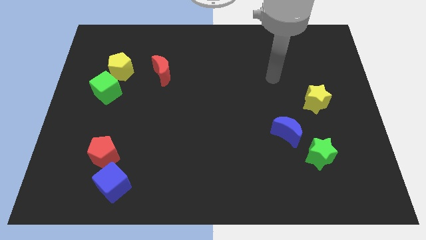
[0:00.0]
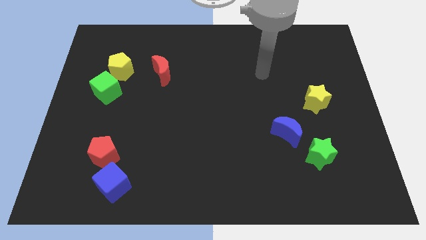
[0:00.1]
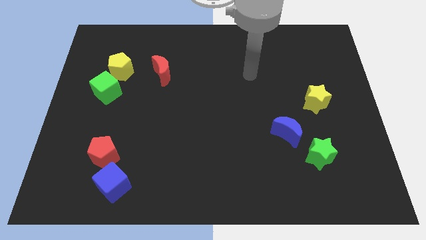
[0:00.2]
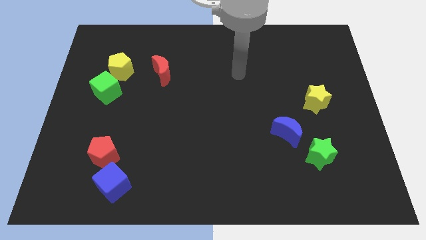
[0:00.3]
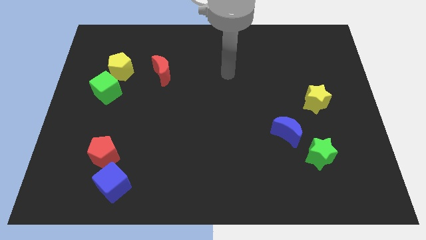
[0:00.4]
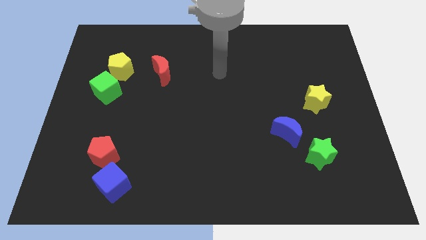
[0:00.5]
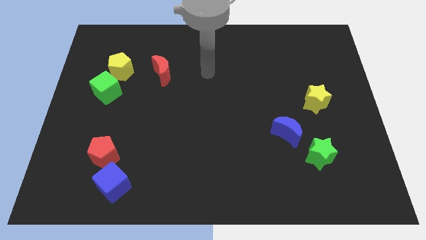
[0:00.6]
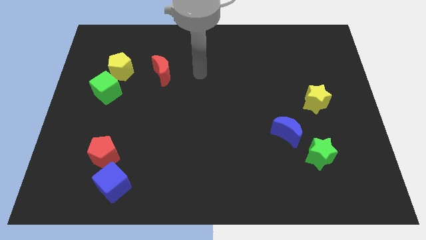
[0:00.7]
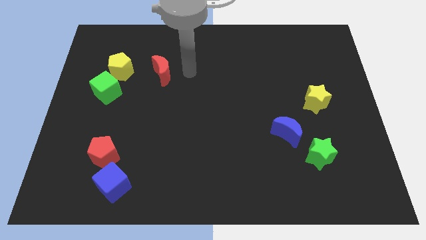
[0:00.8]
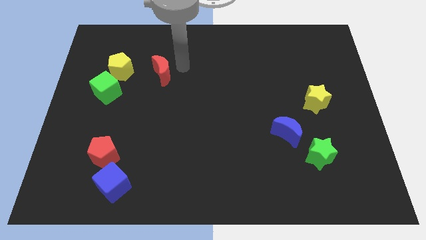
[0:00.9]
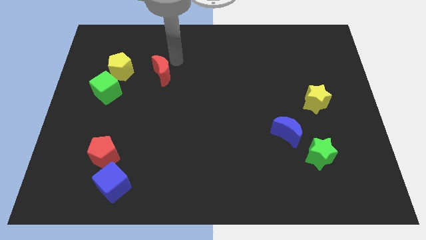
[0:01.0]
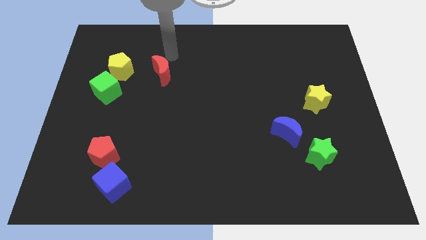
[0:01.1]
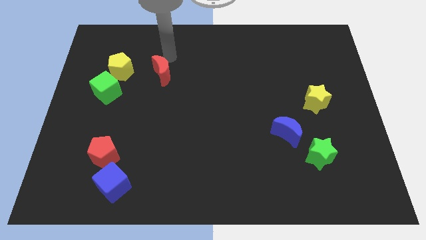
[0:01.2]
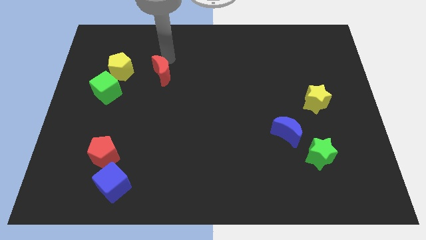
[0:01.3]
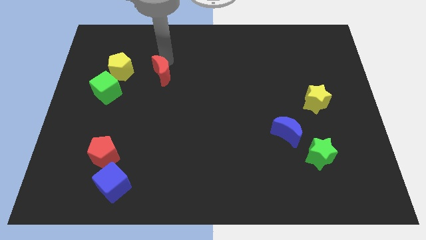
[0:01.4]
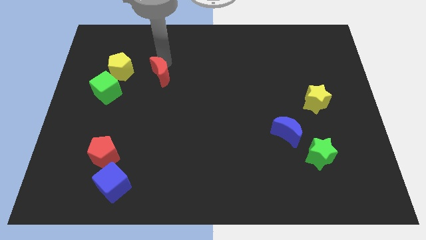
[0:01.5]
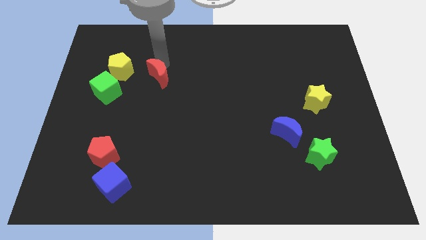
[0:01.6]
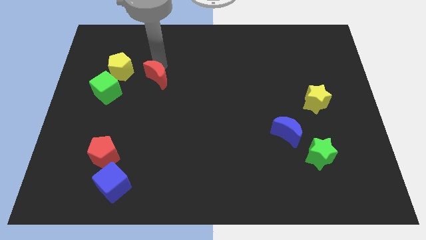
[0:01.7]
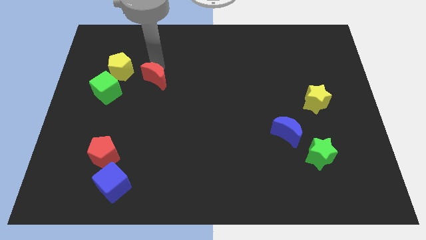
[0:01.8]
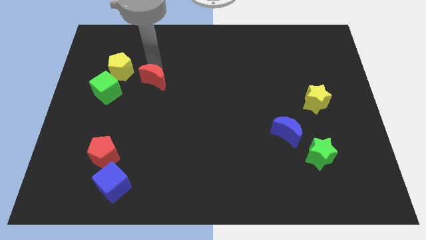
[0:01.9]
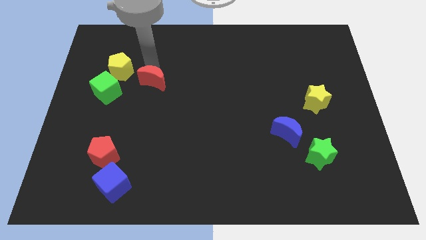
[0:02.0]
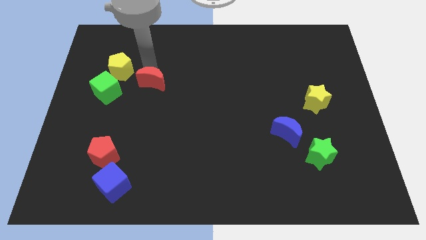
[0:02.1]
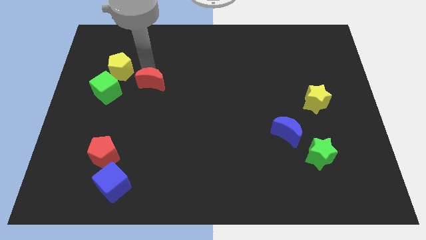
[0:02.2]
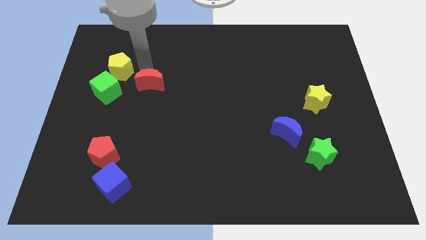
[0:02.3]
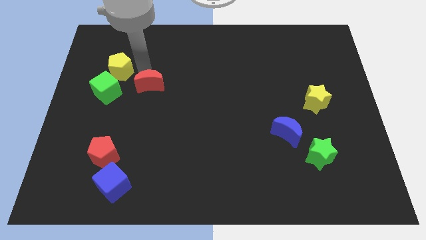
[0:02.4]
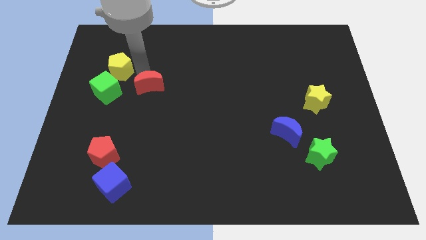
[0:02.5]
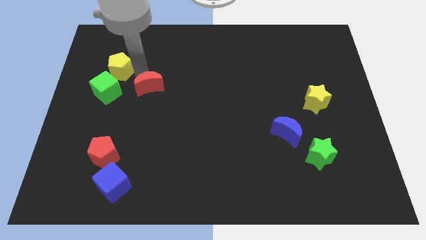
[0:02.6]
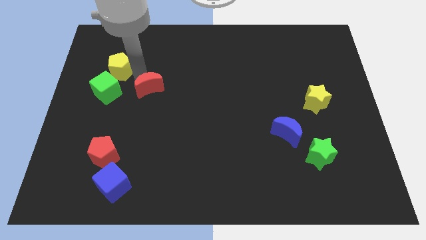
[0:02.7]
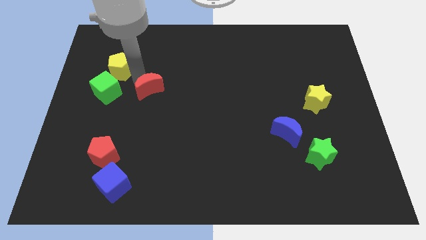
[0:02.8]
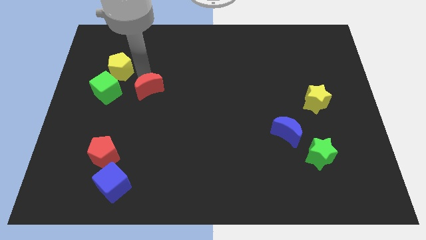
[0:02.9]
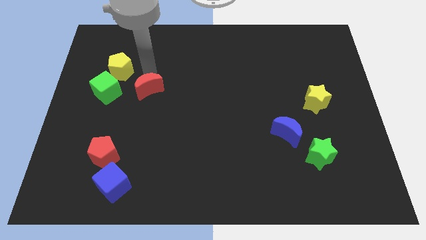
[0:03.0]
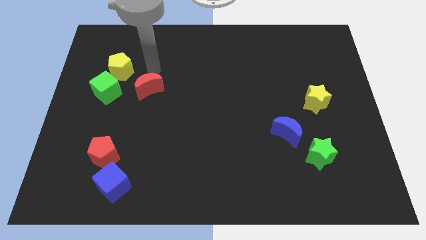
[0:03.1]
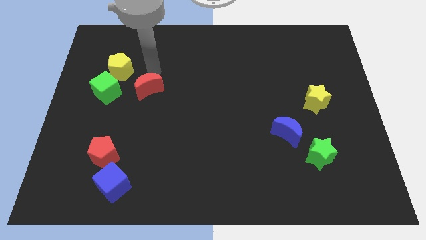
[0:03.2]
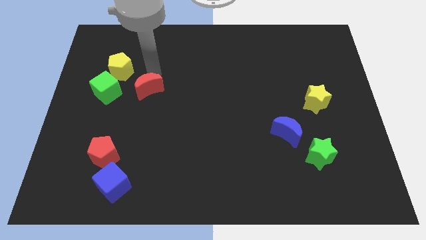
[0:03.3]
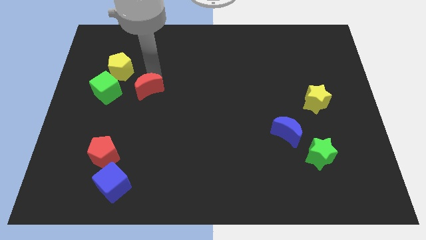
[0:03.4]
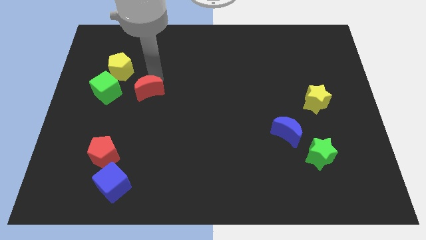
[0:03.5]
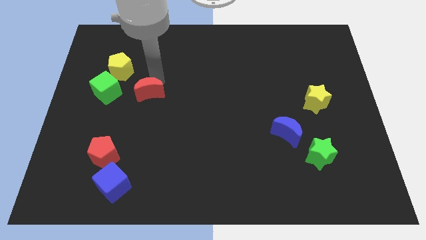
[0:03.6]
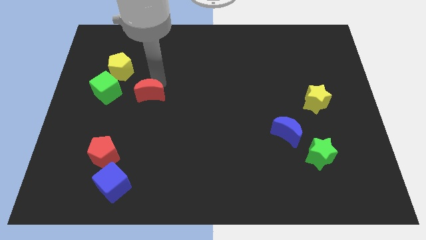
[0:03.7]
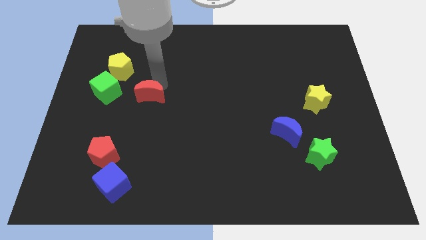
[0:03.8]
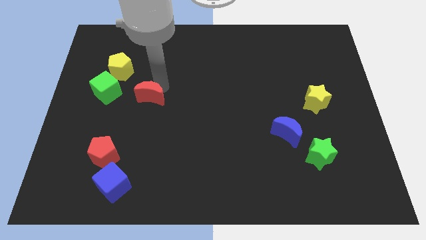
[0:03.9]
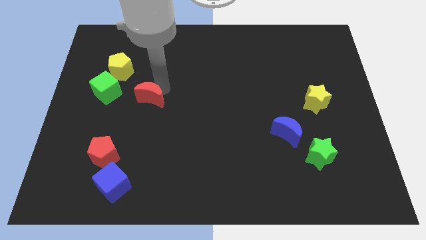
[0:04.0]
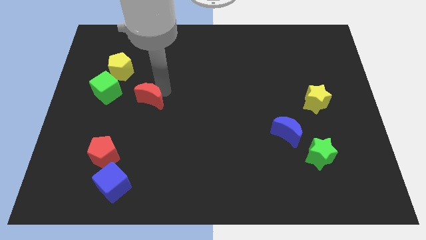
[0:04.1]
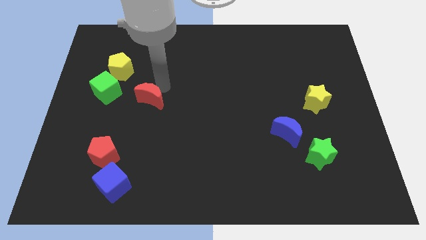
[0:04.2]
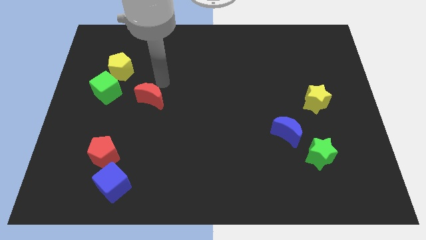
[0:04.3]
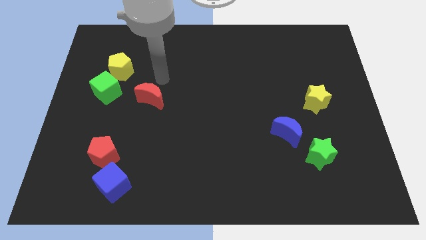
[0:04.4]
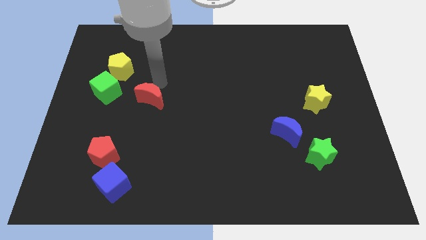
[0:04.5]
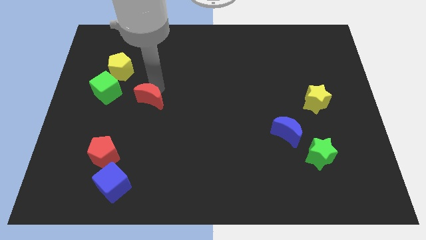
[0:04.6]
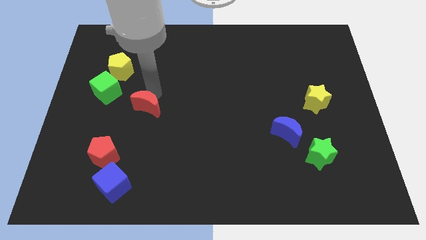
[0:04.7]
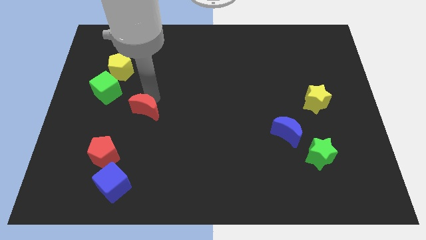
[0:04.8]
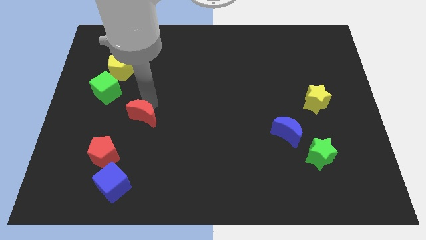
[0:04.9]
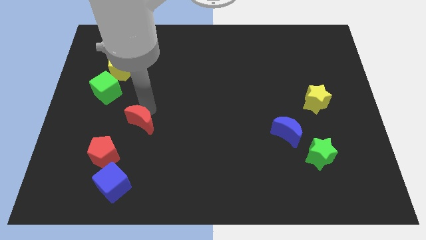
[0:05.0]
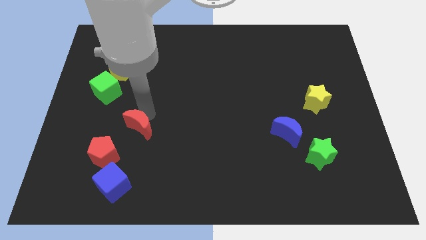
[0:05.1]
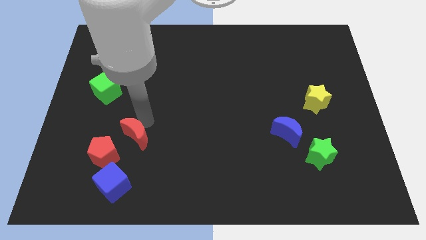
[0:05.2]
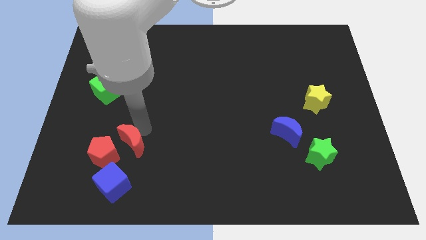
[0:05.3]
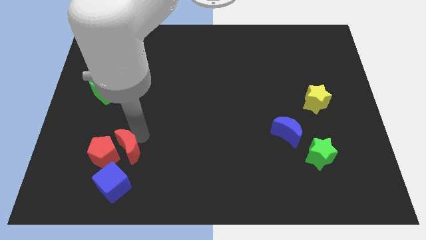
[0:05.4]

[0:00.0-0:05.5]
slide the red moon close to the red pentagon

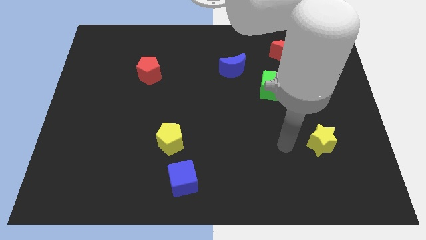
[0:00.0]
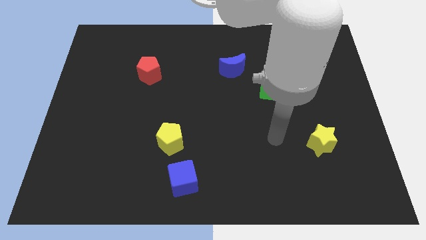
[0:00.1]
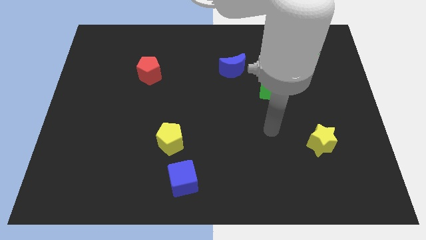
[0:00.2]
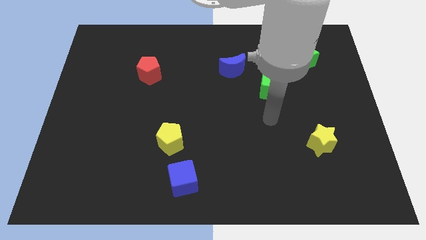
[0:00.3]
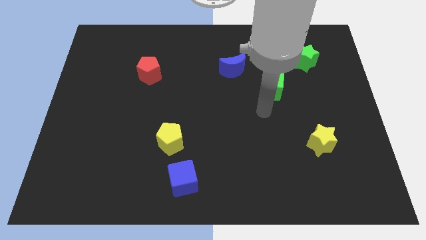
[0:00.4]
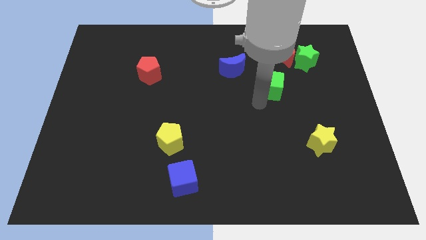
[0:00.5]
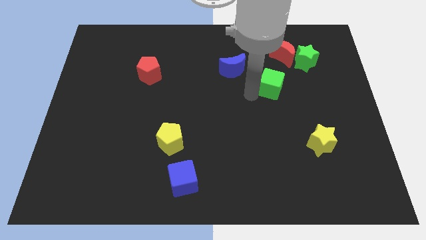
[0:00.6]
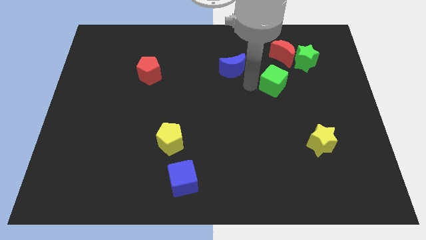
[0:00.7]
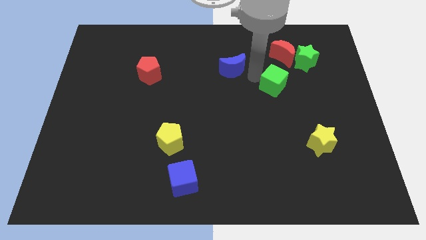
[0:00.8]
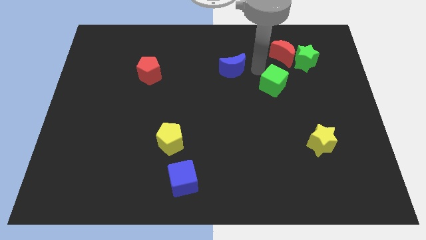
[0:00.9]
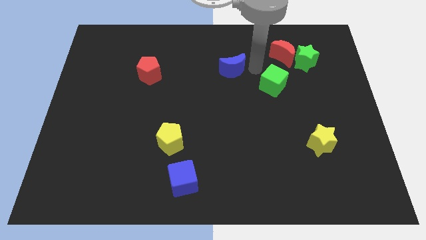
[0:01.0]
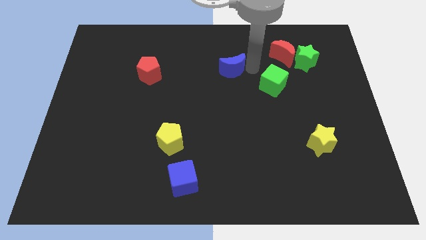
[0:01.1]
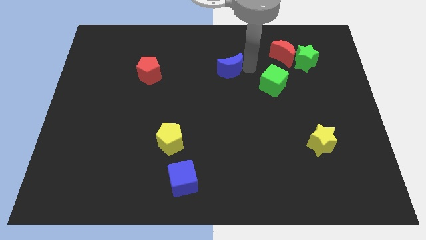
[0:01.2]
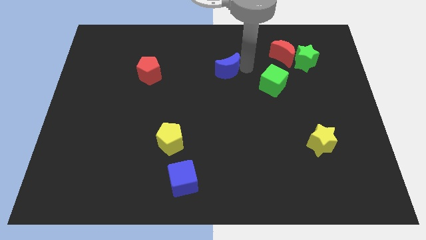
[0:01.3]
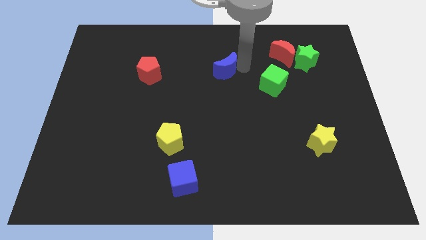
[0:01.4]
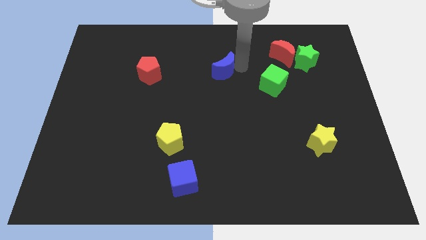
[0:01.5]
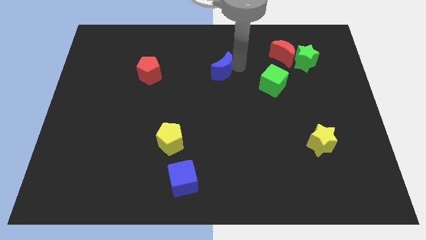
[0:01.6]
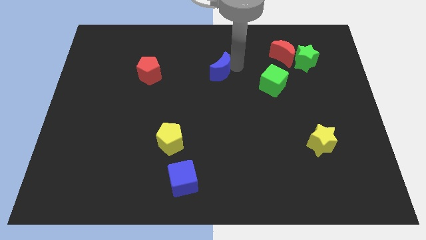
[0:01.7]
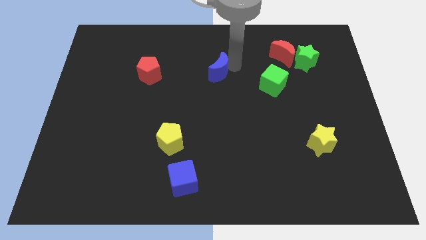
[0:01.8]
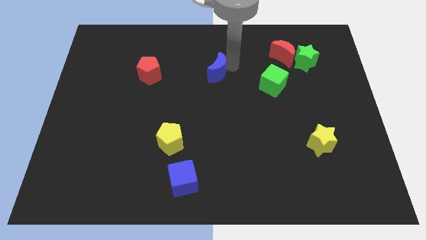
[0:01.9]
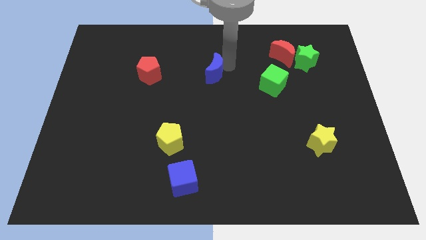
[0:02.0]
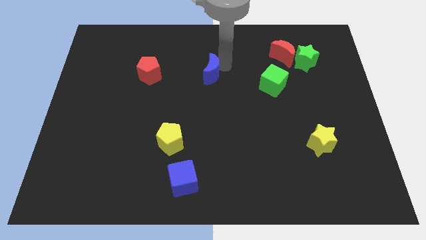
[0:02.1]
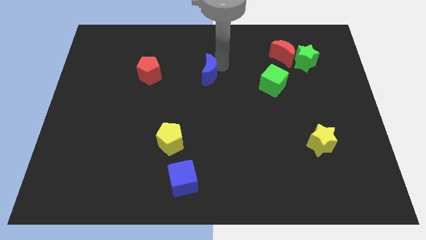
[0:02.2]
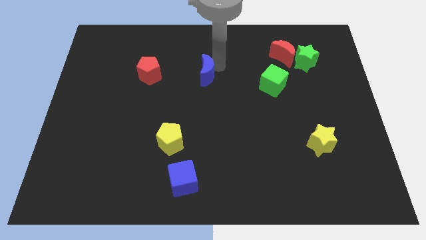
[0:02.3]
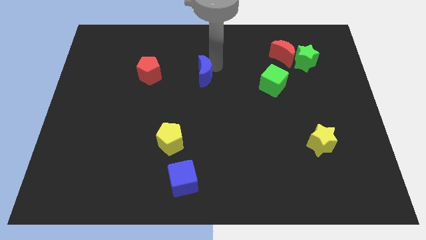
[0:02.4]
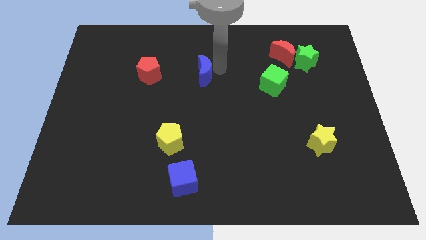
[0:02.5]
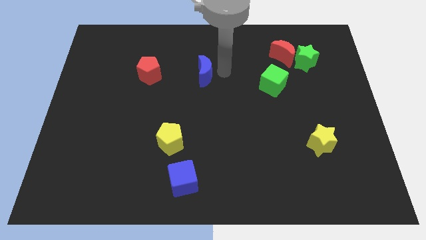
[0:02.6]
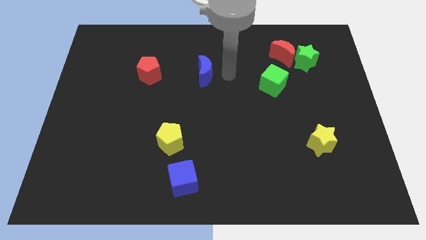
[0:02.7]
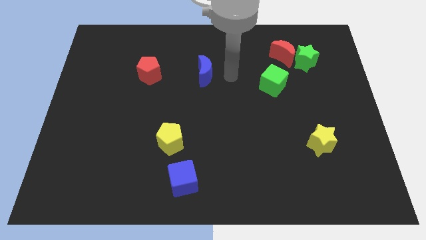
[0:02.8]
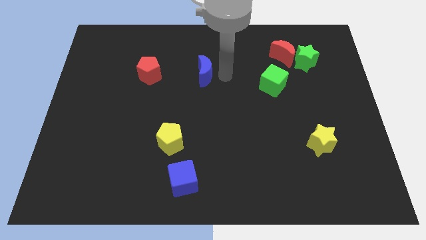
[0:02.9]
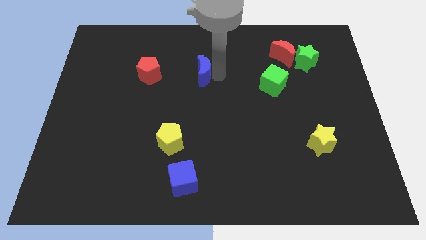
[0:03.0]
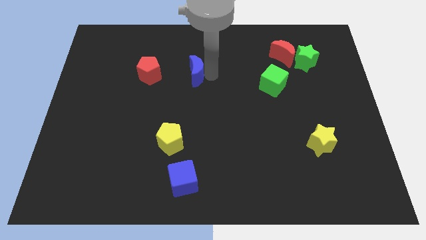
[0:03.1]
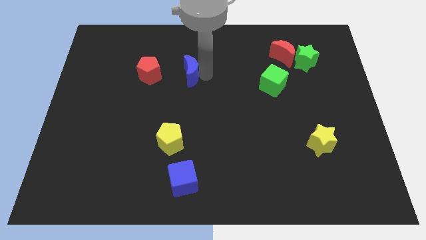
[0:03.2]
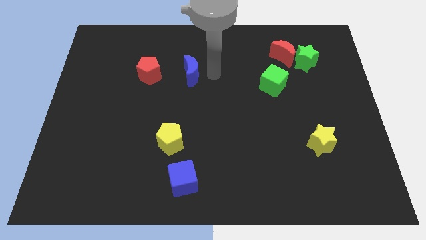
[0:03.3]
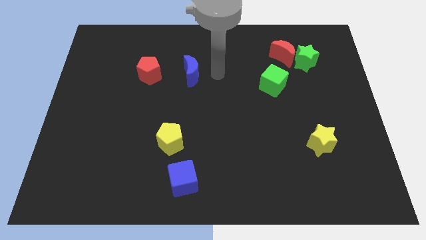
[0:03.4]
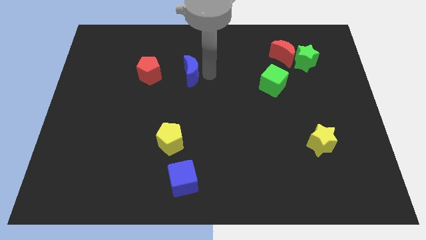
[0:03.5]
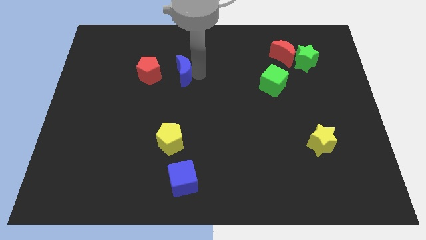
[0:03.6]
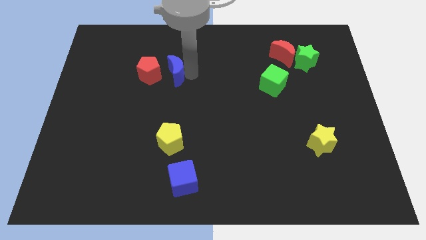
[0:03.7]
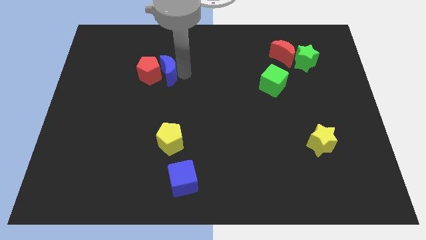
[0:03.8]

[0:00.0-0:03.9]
move the blue moon to the red pentagon
